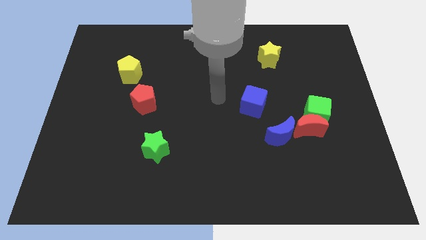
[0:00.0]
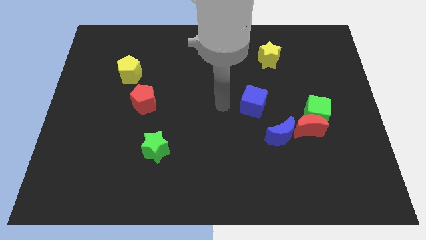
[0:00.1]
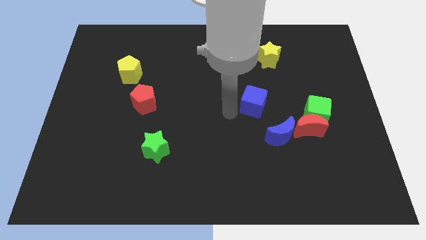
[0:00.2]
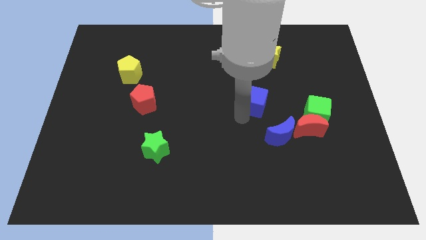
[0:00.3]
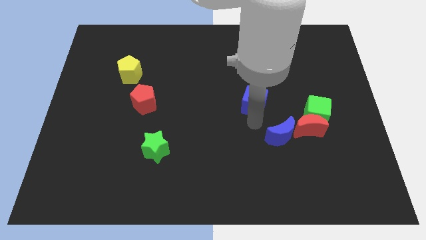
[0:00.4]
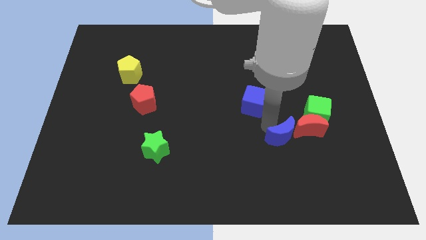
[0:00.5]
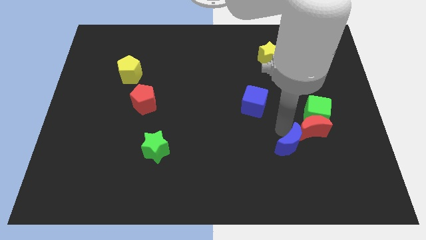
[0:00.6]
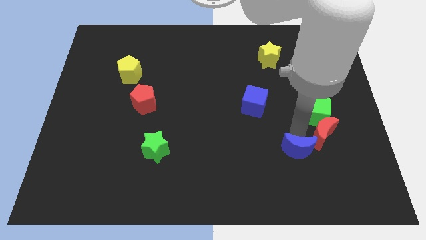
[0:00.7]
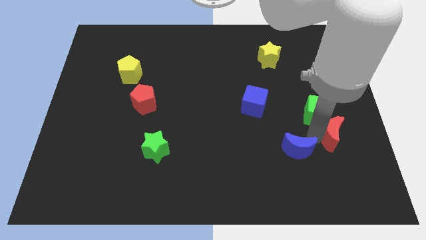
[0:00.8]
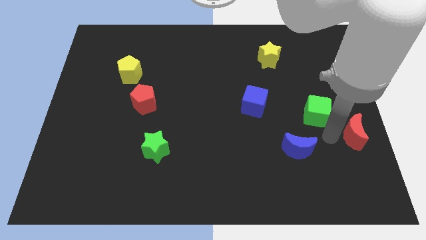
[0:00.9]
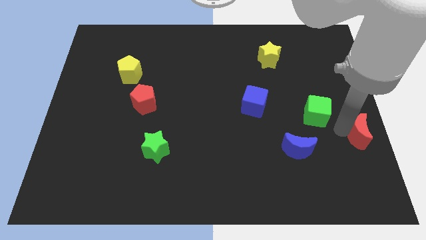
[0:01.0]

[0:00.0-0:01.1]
separate the green cube from the red moon

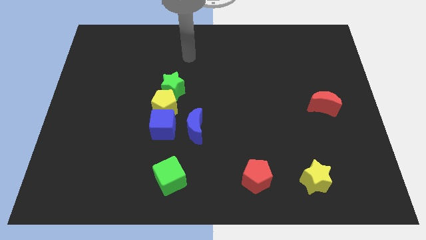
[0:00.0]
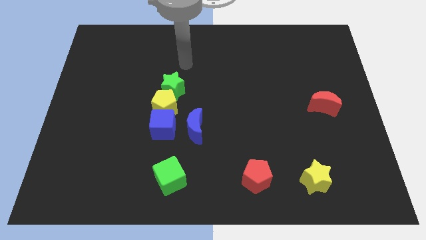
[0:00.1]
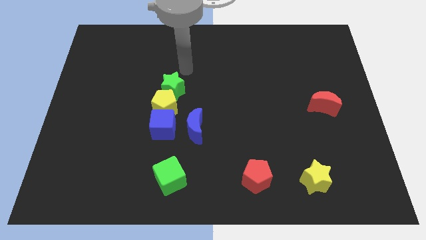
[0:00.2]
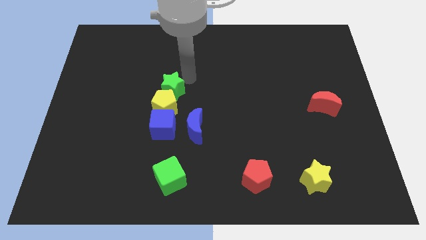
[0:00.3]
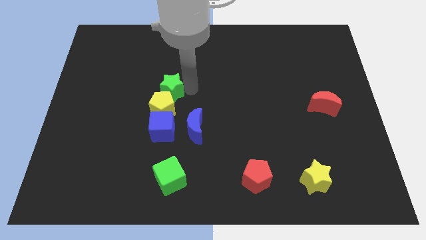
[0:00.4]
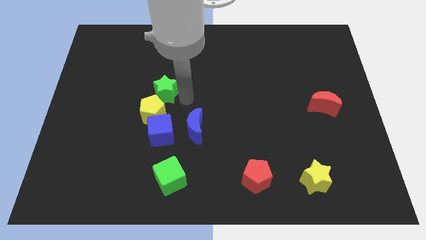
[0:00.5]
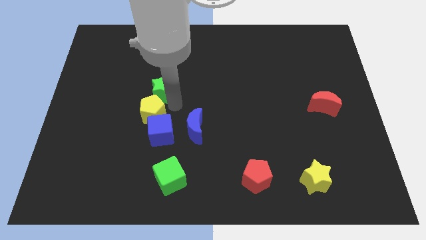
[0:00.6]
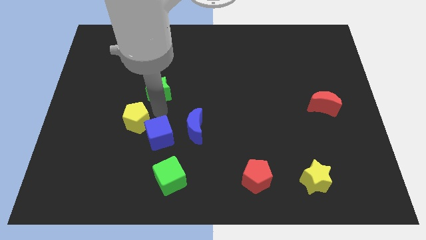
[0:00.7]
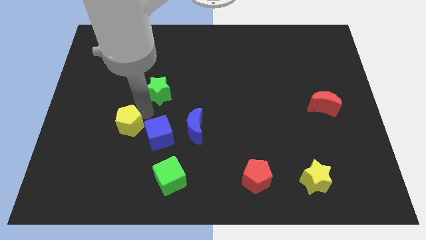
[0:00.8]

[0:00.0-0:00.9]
move the green star away from the yellow pentagon

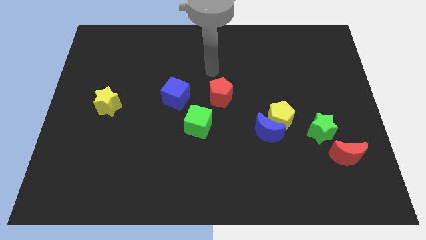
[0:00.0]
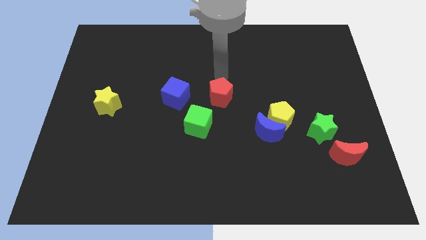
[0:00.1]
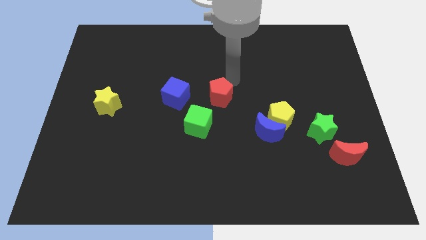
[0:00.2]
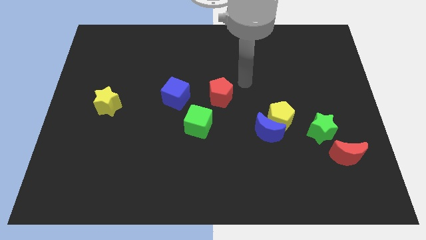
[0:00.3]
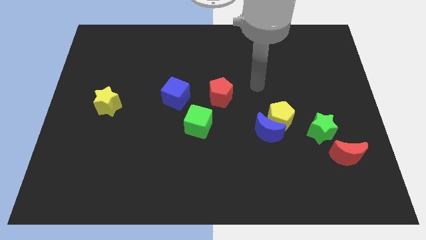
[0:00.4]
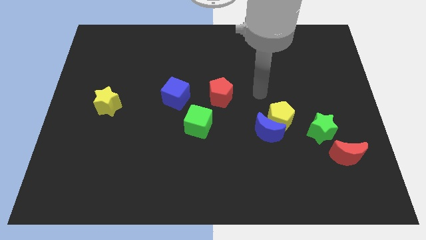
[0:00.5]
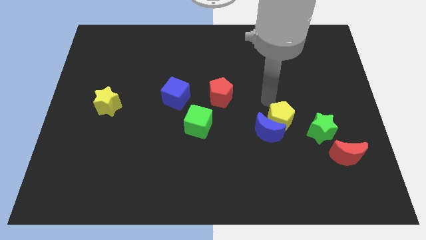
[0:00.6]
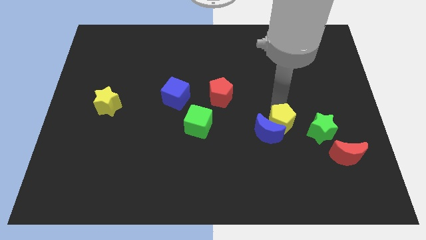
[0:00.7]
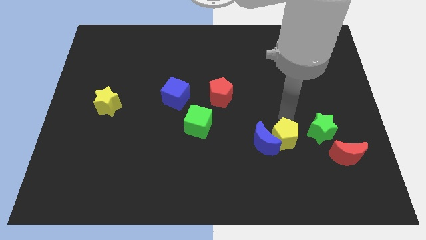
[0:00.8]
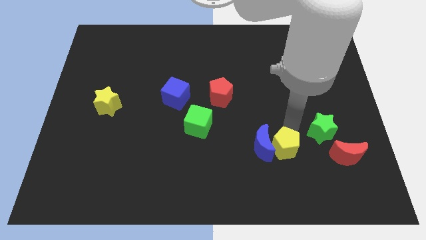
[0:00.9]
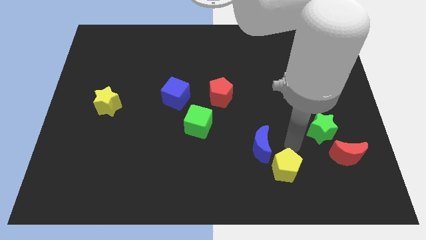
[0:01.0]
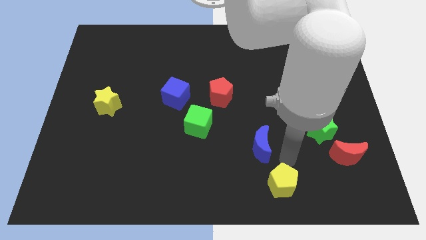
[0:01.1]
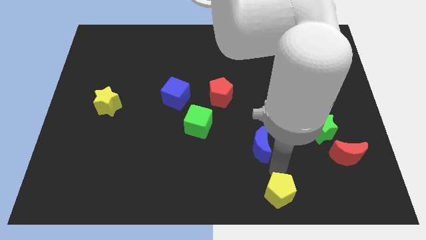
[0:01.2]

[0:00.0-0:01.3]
separate the blue moon from the yellow pentagon

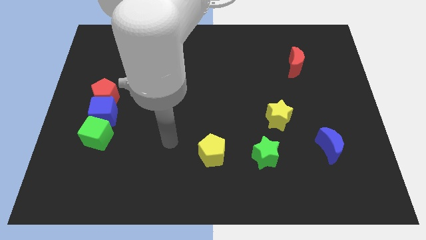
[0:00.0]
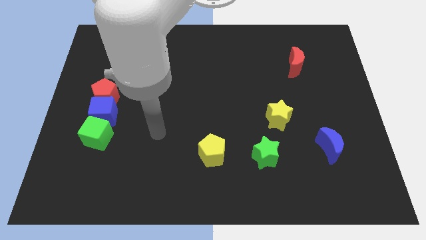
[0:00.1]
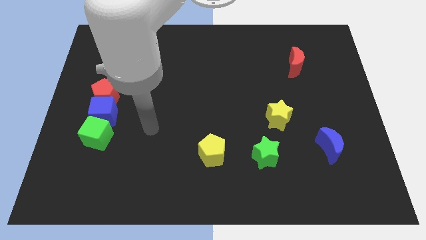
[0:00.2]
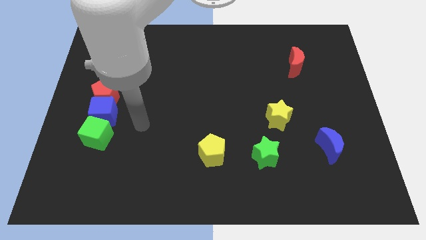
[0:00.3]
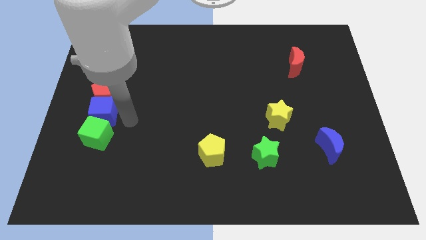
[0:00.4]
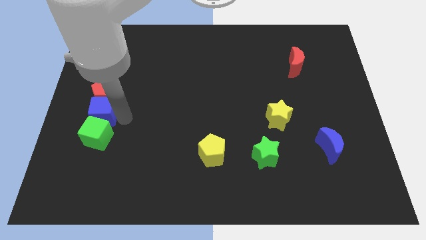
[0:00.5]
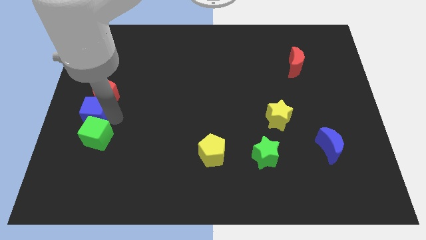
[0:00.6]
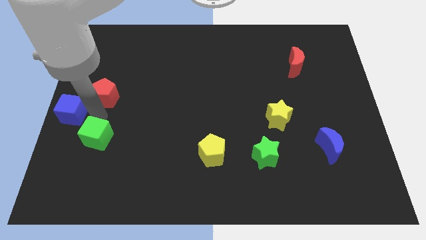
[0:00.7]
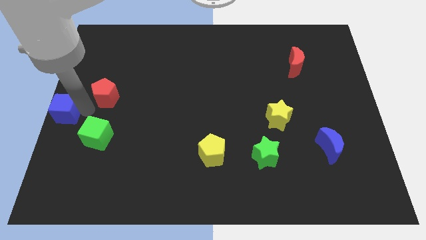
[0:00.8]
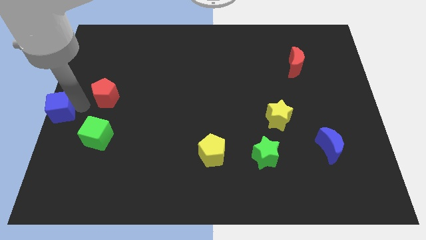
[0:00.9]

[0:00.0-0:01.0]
separate the red pentagon from the blue cube

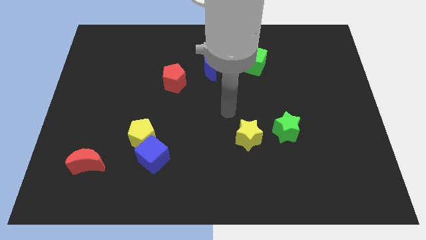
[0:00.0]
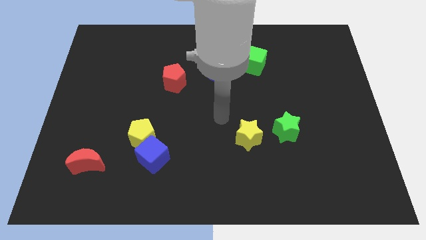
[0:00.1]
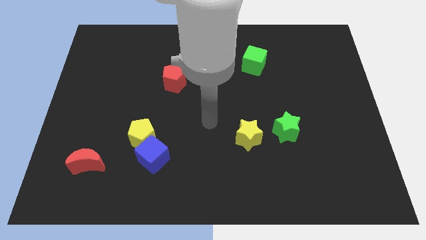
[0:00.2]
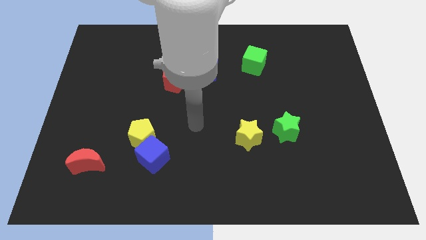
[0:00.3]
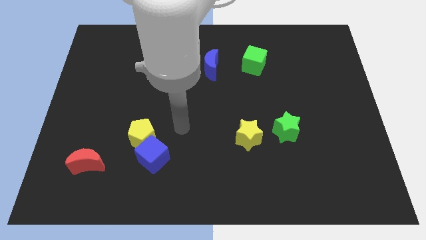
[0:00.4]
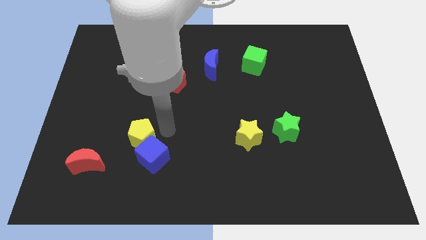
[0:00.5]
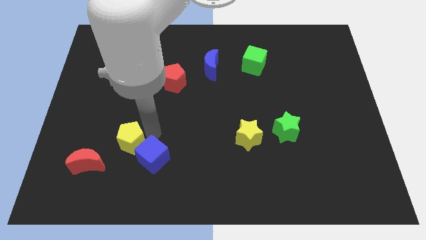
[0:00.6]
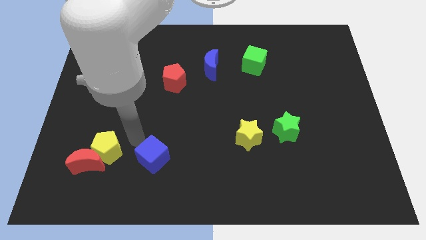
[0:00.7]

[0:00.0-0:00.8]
move the blue cube away from the yellow pentagon

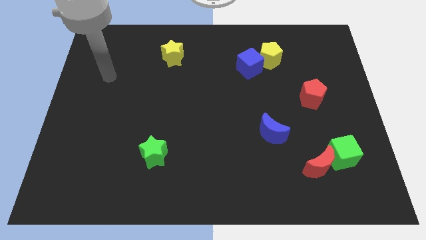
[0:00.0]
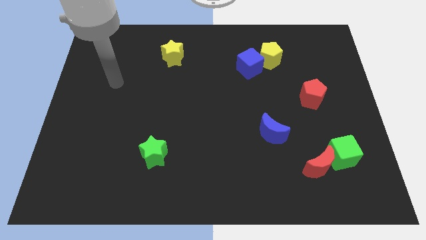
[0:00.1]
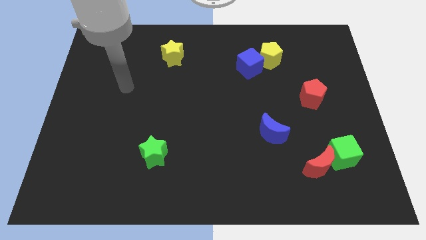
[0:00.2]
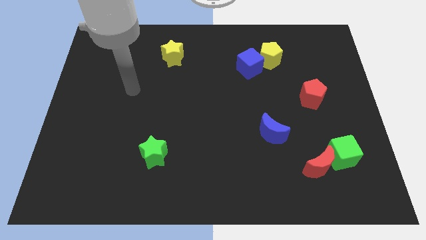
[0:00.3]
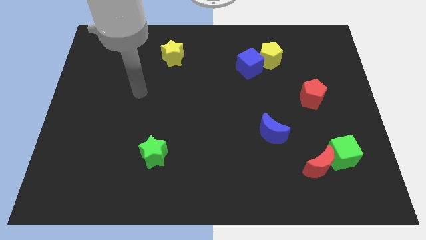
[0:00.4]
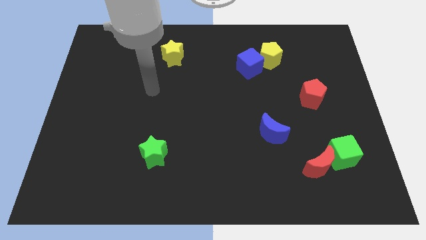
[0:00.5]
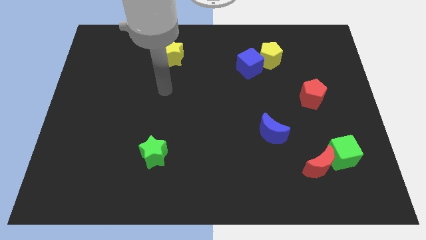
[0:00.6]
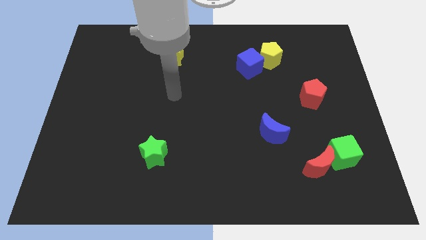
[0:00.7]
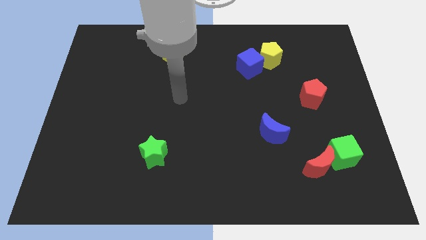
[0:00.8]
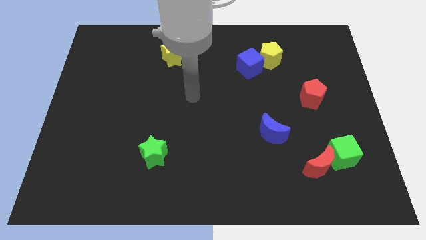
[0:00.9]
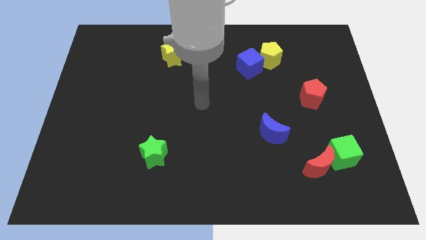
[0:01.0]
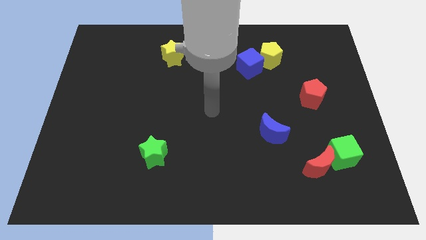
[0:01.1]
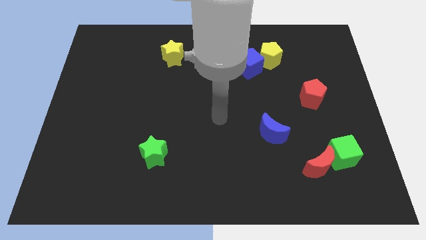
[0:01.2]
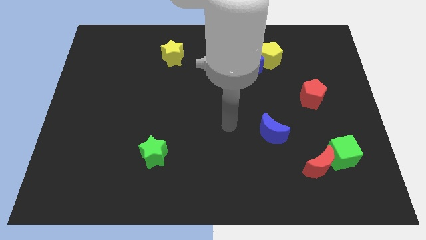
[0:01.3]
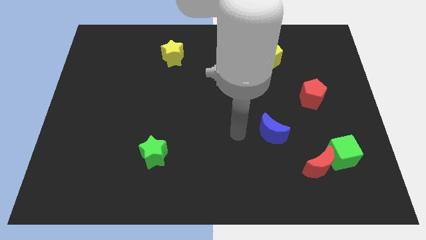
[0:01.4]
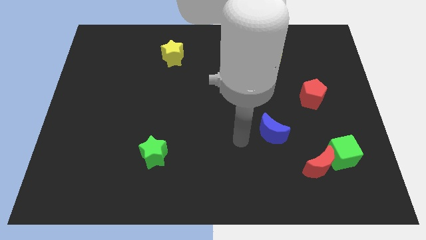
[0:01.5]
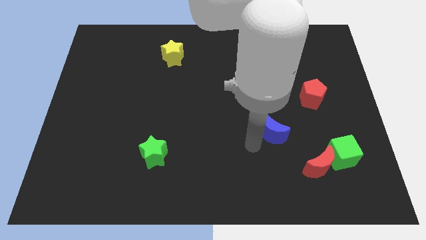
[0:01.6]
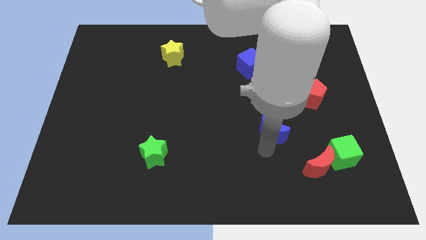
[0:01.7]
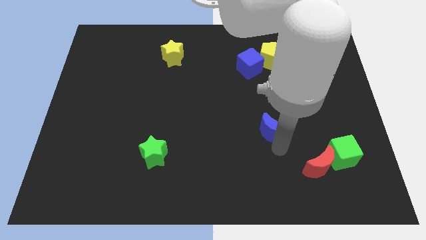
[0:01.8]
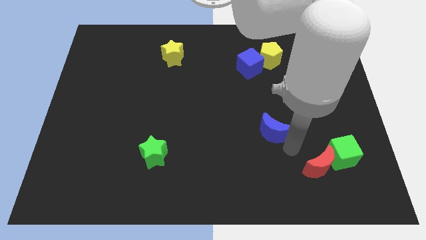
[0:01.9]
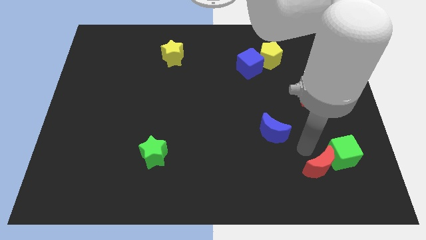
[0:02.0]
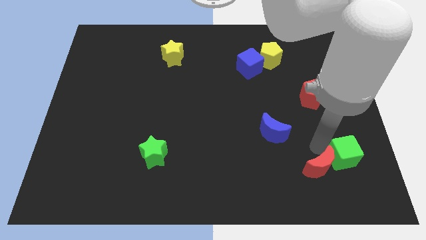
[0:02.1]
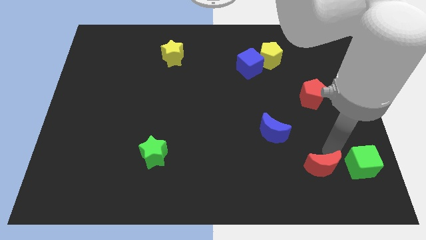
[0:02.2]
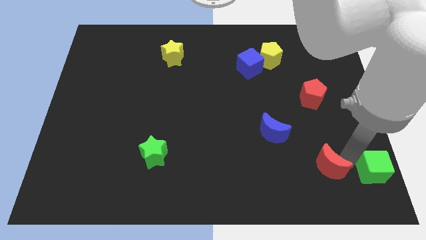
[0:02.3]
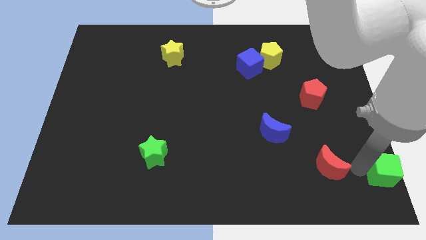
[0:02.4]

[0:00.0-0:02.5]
move the red moon away from the green cube

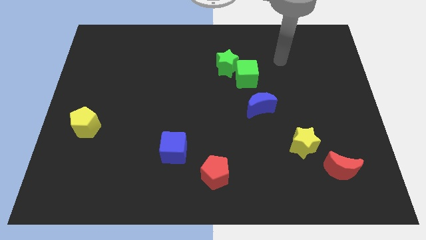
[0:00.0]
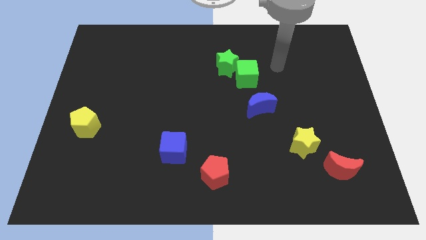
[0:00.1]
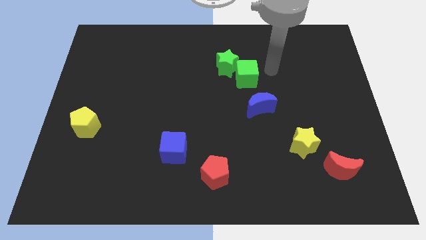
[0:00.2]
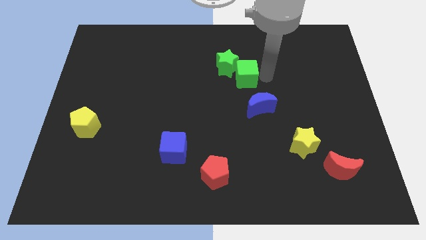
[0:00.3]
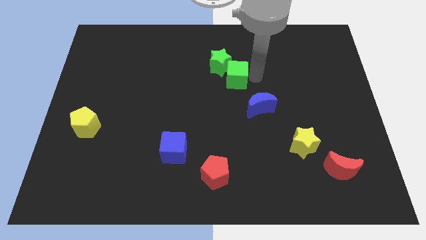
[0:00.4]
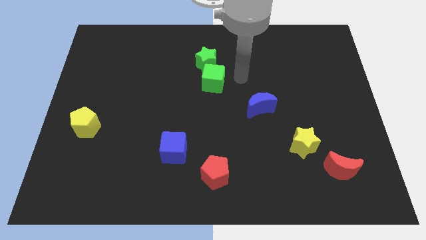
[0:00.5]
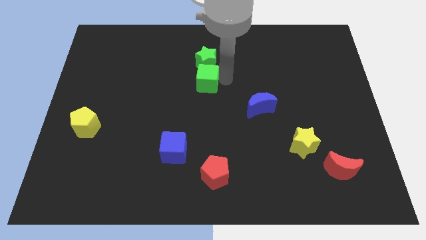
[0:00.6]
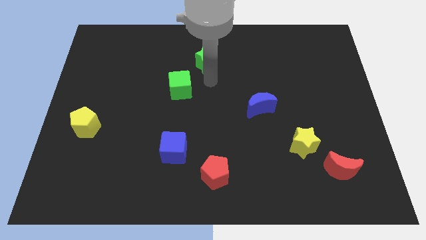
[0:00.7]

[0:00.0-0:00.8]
pull the green star apart from the green cube

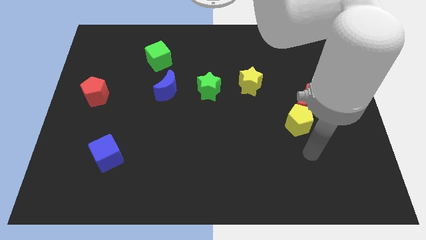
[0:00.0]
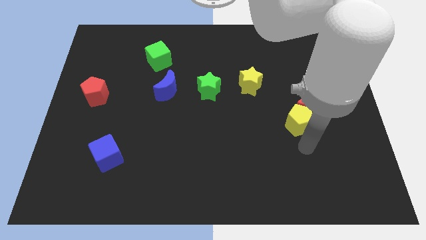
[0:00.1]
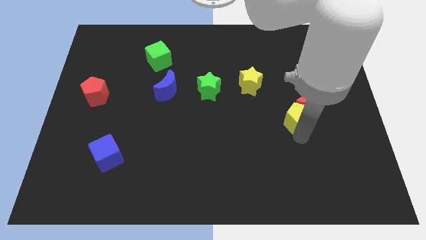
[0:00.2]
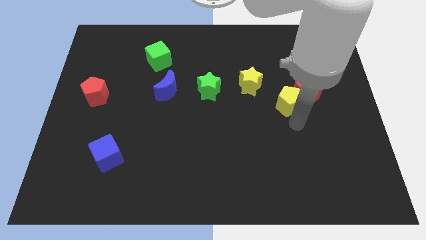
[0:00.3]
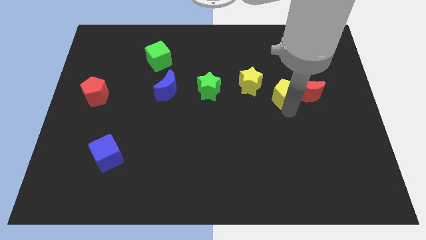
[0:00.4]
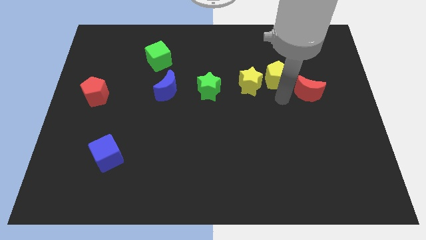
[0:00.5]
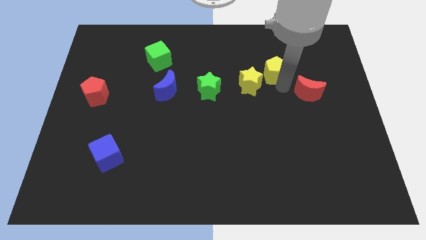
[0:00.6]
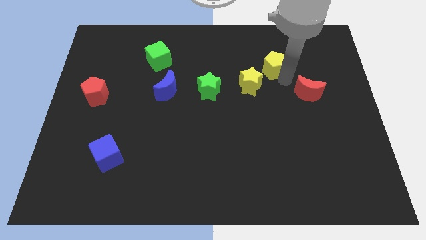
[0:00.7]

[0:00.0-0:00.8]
pull the red moon apart from the yellow pentagon

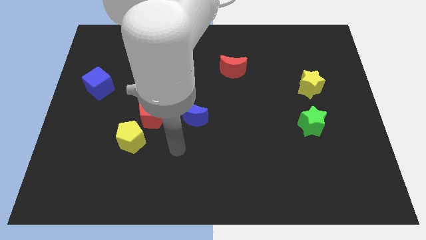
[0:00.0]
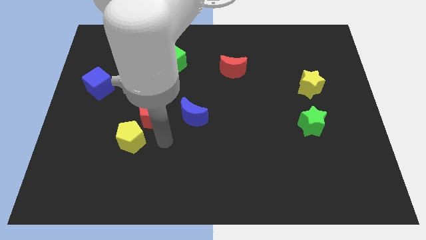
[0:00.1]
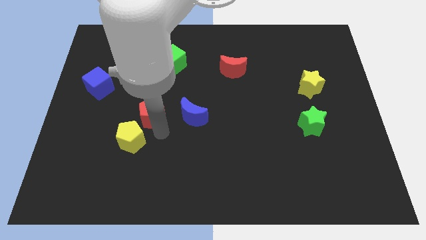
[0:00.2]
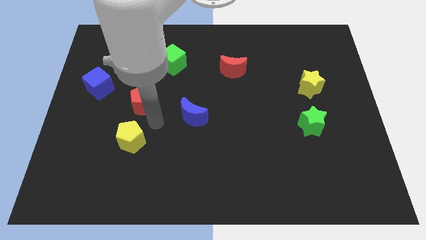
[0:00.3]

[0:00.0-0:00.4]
move the yellow pentagon away from the red pentagon
